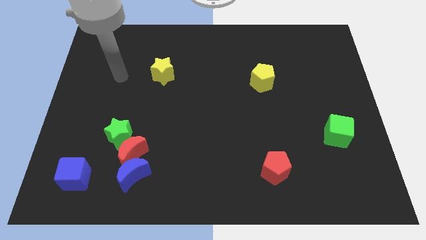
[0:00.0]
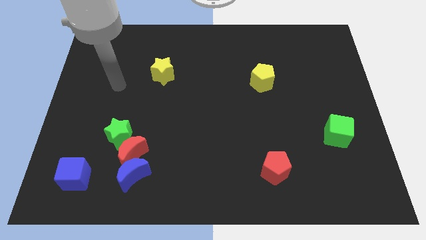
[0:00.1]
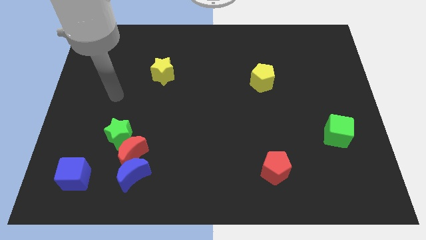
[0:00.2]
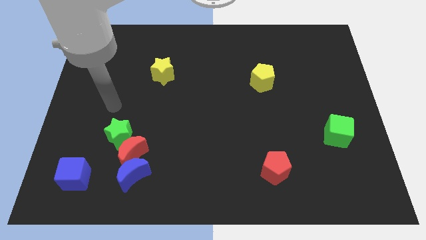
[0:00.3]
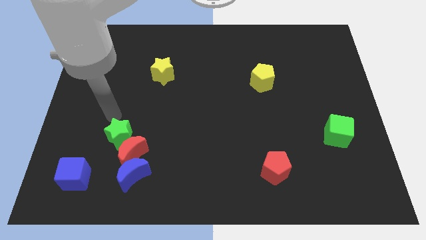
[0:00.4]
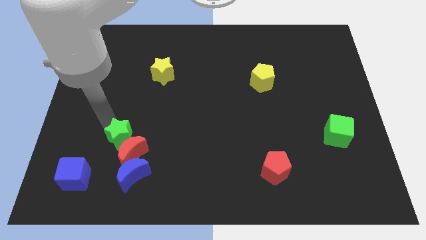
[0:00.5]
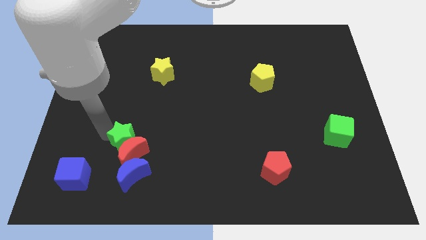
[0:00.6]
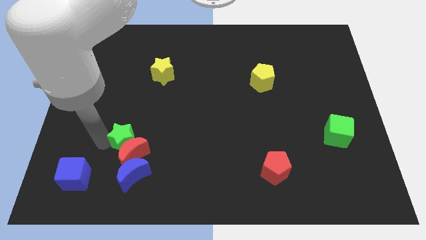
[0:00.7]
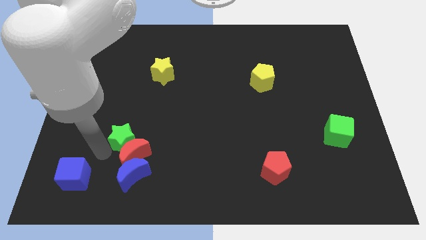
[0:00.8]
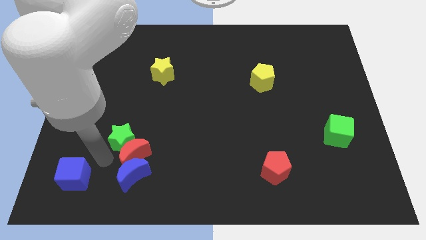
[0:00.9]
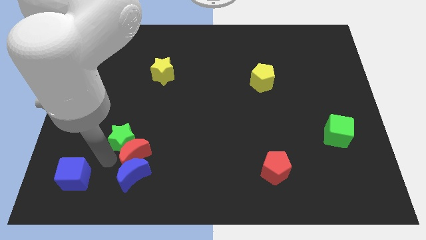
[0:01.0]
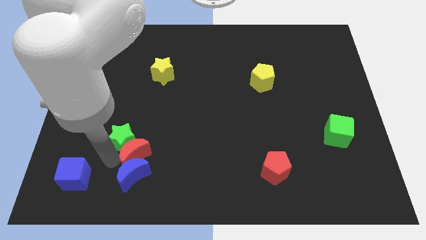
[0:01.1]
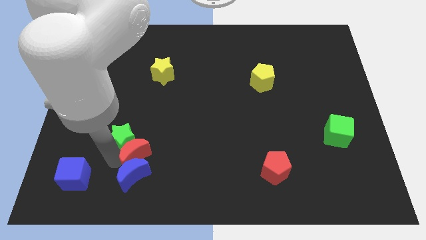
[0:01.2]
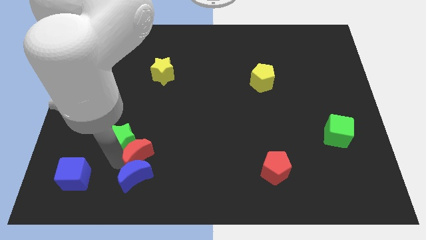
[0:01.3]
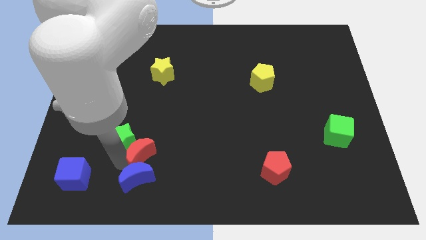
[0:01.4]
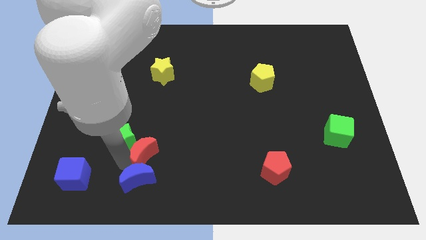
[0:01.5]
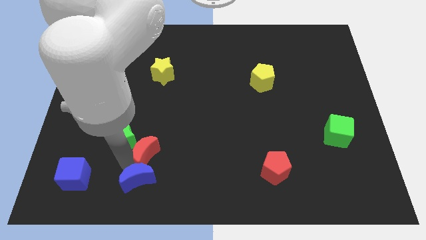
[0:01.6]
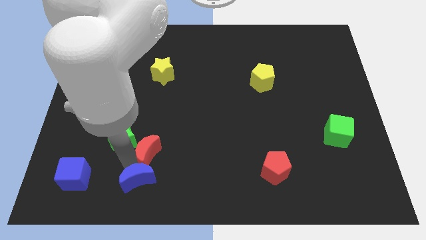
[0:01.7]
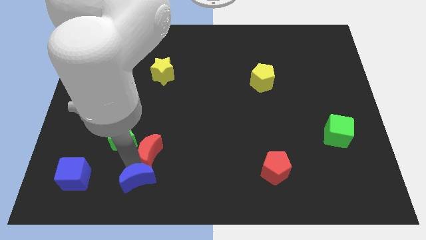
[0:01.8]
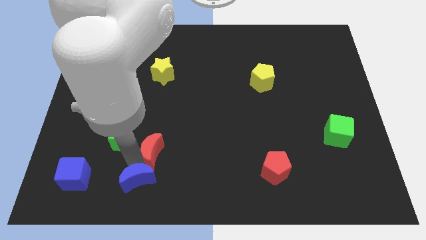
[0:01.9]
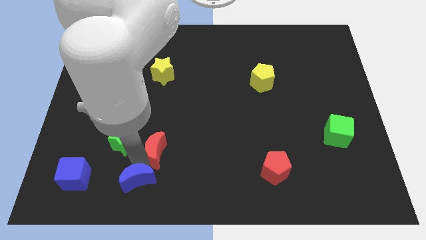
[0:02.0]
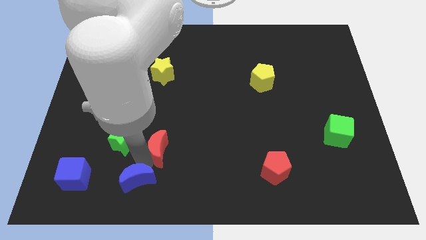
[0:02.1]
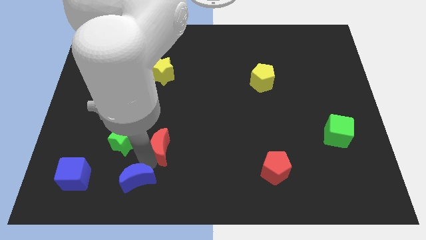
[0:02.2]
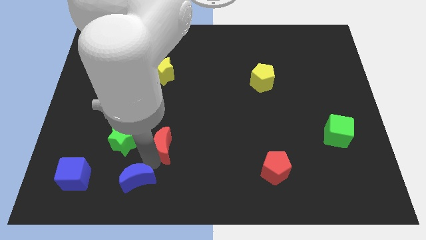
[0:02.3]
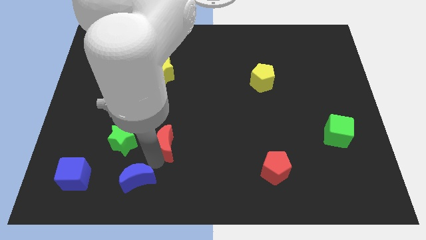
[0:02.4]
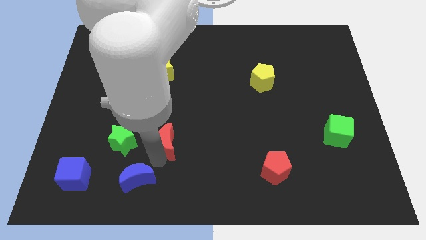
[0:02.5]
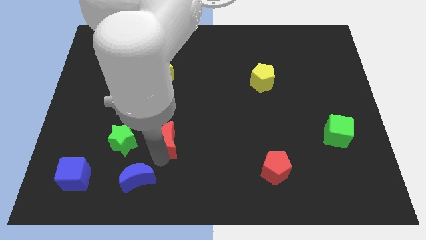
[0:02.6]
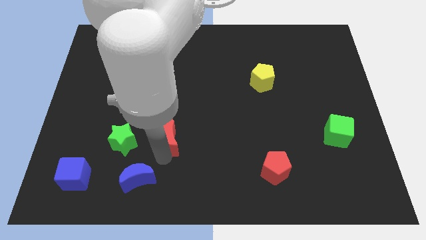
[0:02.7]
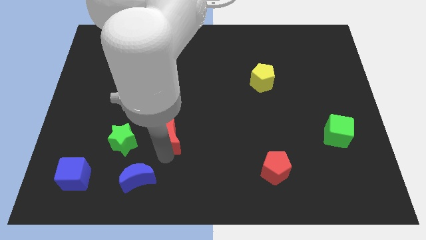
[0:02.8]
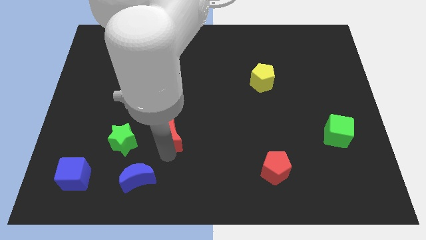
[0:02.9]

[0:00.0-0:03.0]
move the red moon away from the blue moon and green star

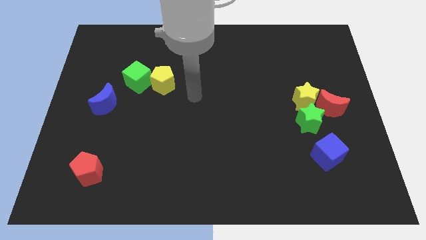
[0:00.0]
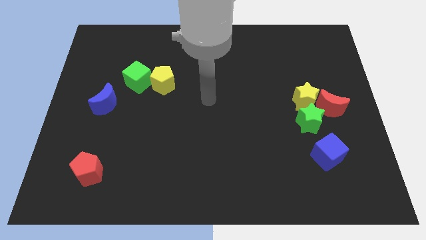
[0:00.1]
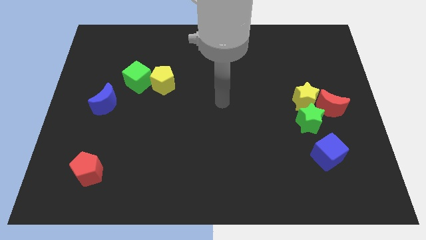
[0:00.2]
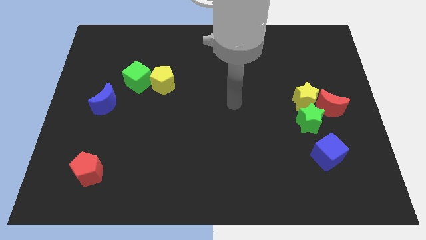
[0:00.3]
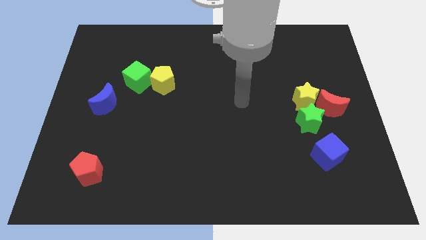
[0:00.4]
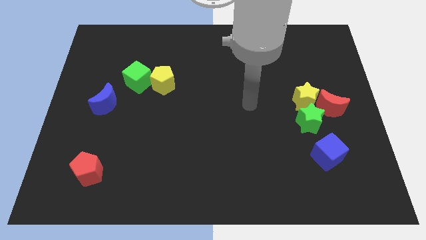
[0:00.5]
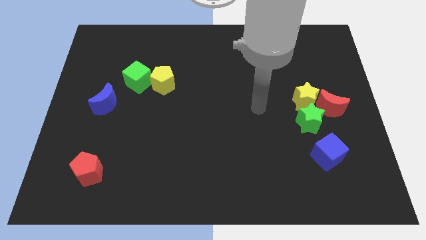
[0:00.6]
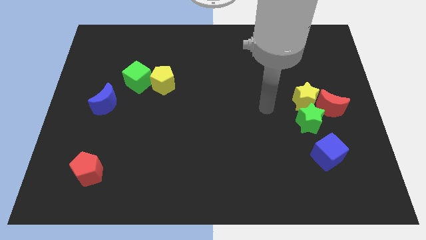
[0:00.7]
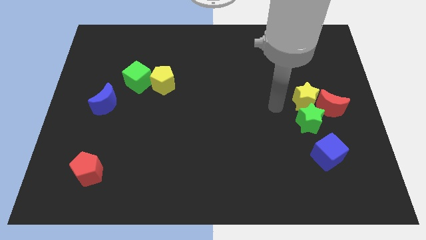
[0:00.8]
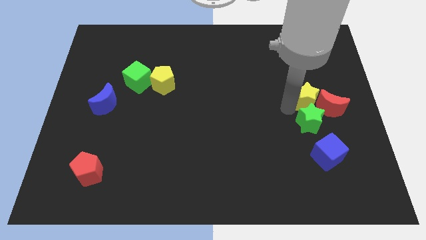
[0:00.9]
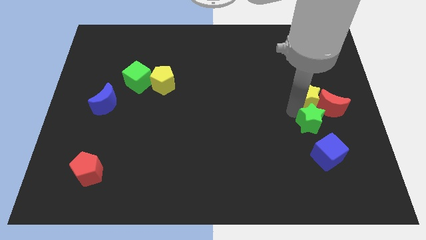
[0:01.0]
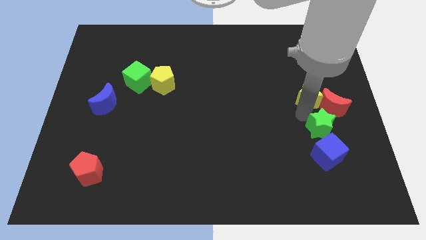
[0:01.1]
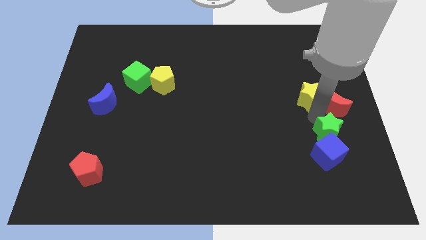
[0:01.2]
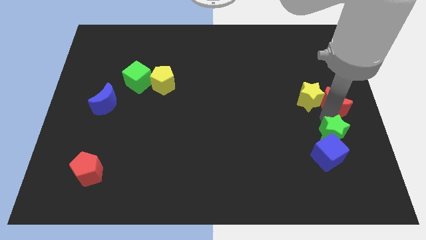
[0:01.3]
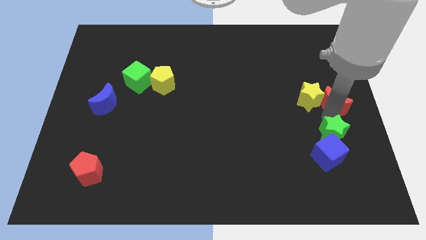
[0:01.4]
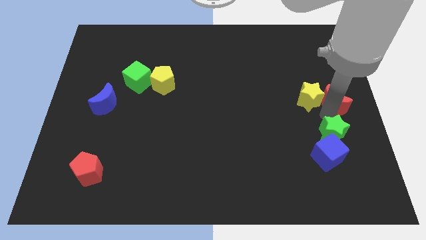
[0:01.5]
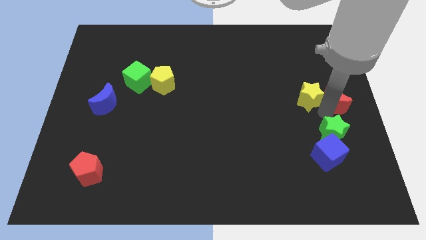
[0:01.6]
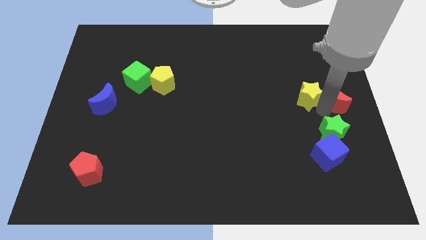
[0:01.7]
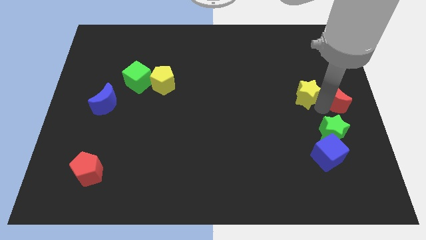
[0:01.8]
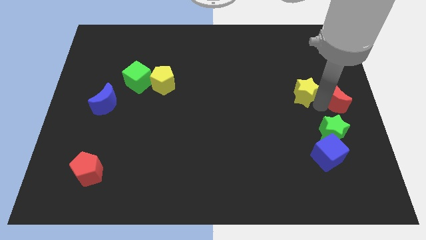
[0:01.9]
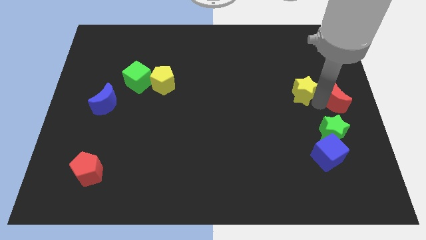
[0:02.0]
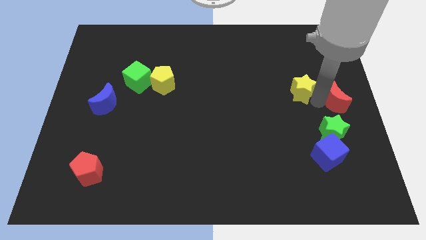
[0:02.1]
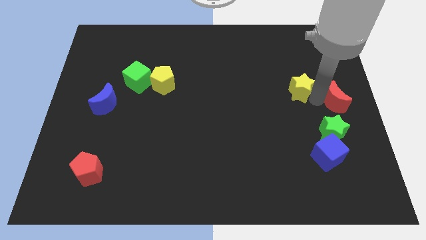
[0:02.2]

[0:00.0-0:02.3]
pull the yellow star apart from the green star and red moon

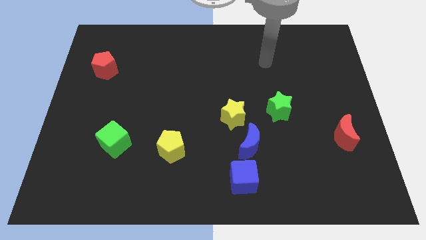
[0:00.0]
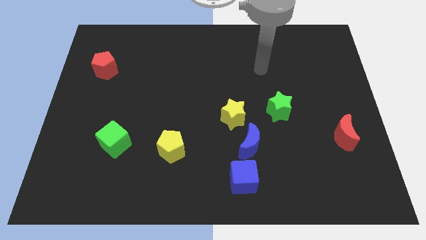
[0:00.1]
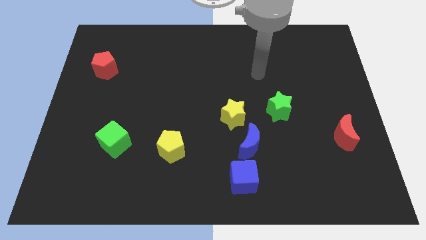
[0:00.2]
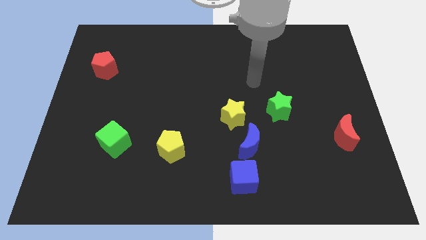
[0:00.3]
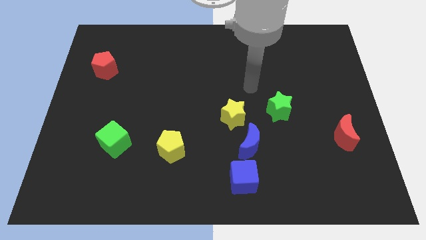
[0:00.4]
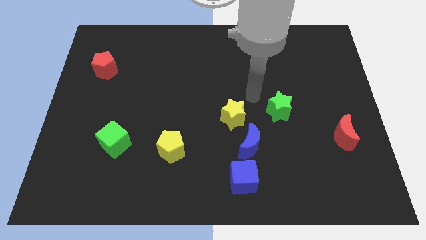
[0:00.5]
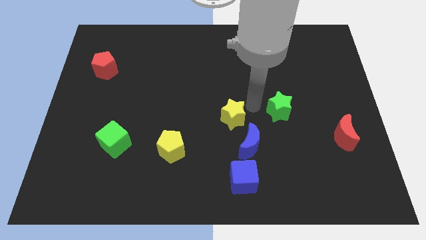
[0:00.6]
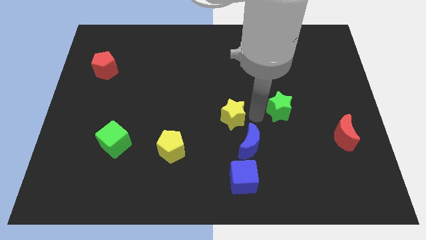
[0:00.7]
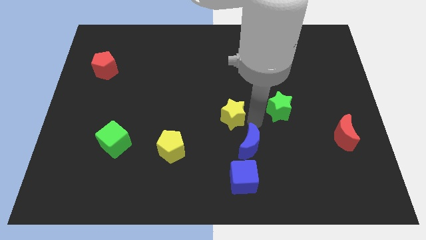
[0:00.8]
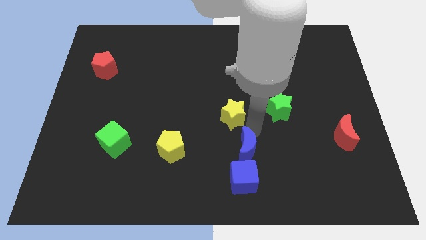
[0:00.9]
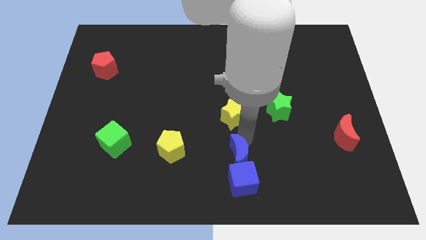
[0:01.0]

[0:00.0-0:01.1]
separate the yellow star from the blue moon

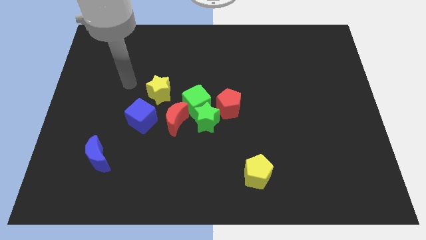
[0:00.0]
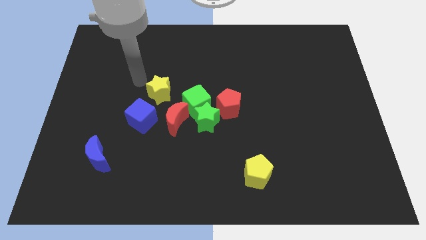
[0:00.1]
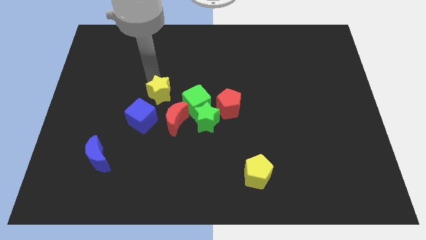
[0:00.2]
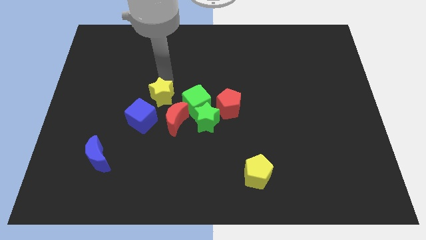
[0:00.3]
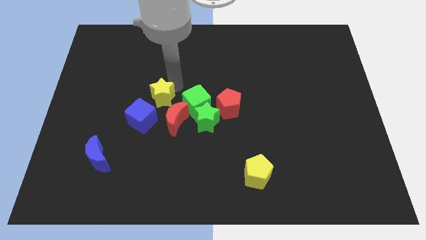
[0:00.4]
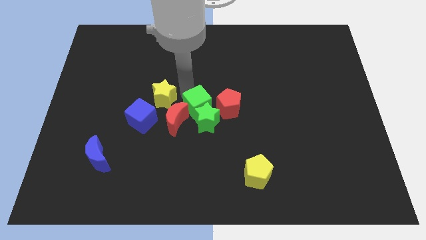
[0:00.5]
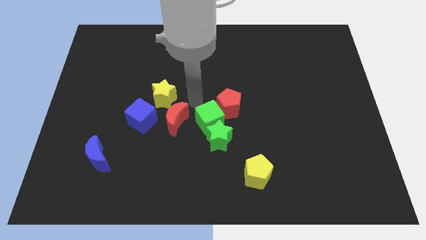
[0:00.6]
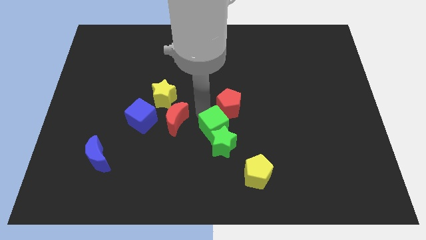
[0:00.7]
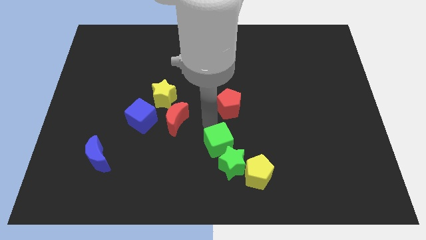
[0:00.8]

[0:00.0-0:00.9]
separate the green star from the group of blocks

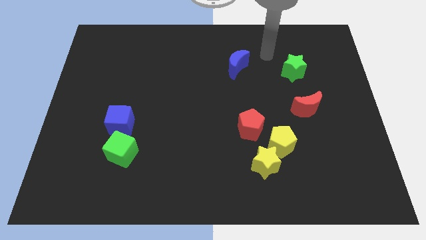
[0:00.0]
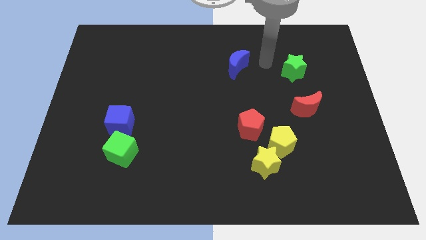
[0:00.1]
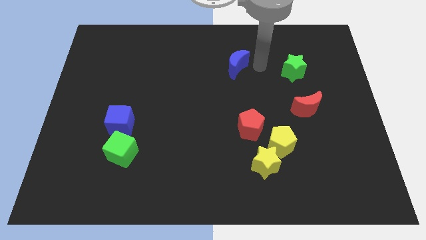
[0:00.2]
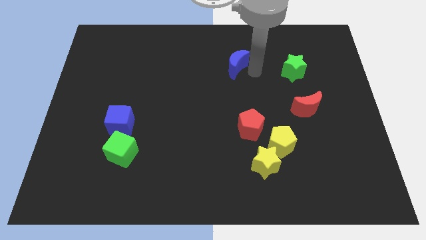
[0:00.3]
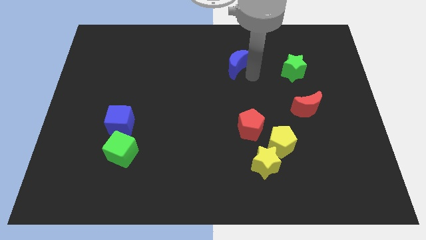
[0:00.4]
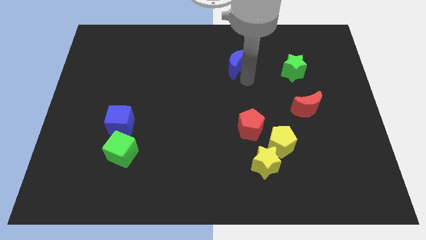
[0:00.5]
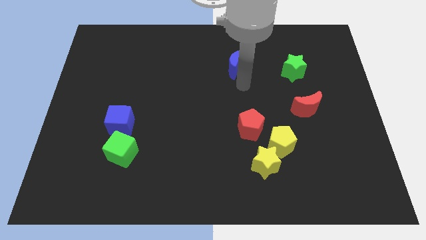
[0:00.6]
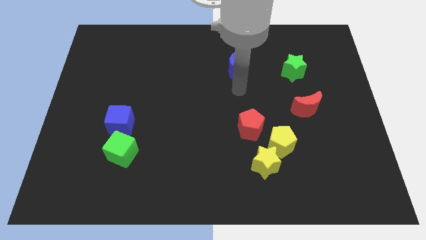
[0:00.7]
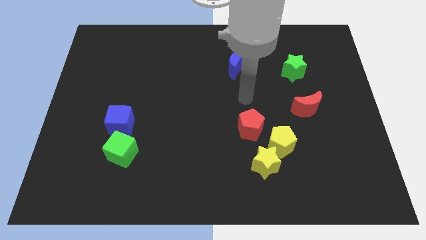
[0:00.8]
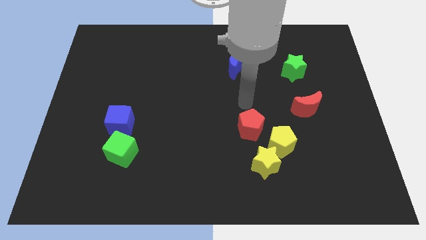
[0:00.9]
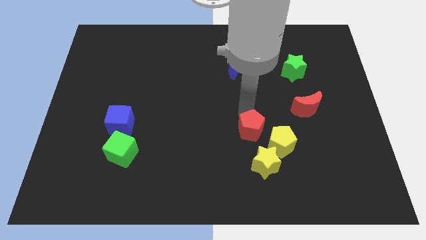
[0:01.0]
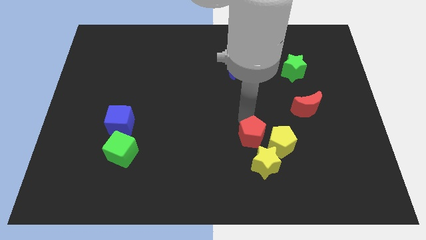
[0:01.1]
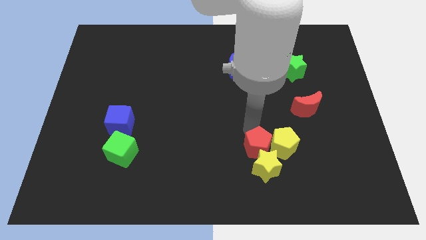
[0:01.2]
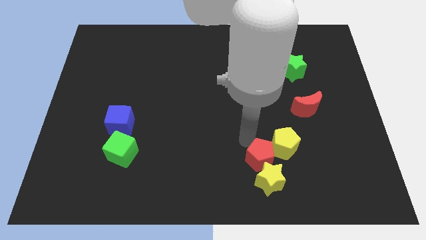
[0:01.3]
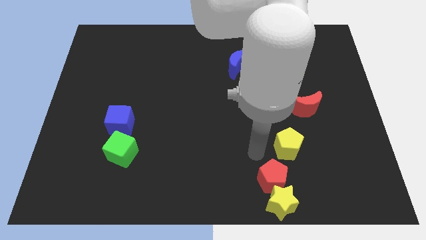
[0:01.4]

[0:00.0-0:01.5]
pull the yellow pentagon apart from the yellow star and red pentagon

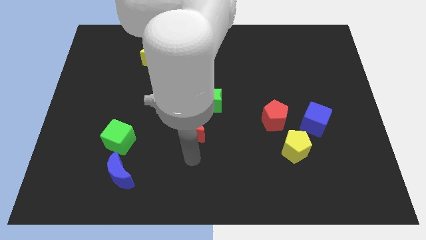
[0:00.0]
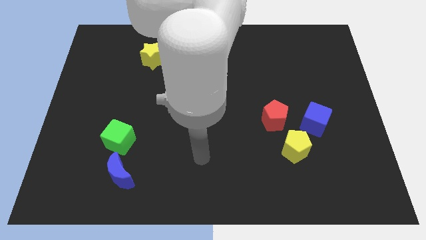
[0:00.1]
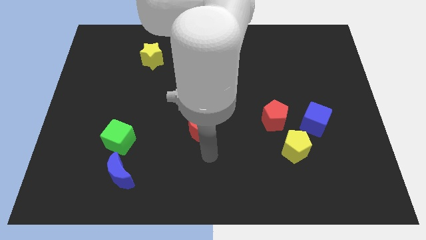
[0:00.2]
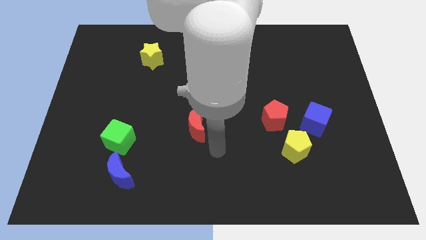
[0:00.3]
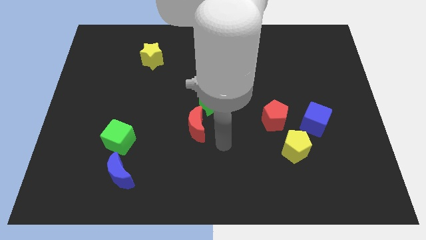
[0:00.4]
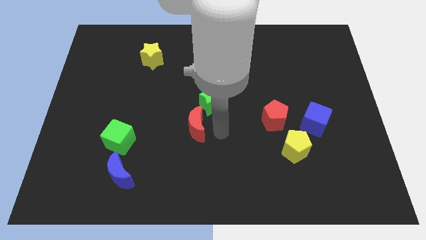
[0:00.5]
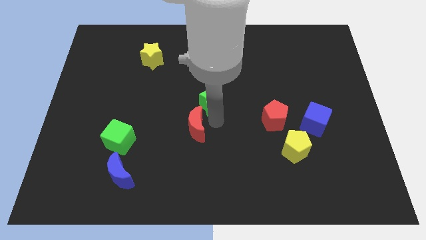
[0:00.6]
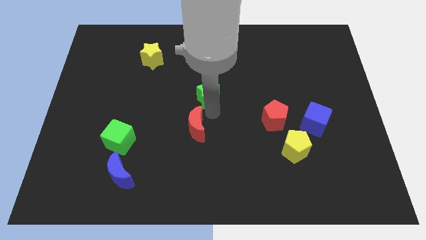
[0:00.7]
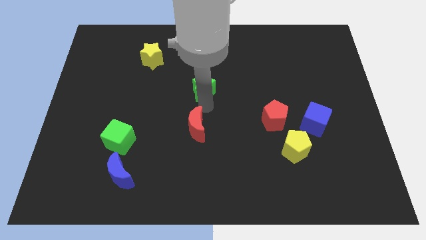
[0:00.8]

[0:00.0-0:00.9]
pull the red moon apart from the green star
